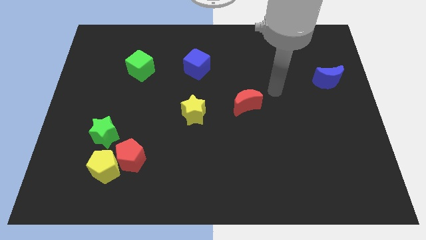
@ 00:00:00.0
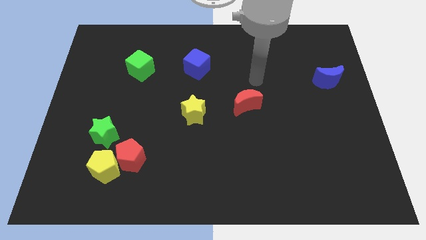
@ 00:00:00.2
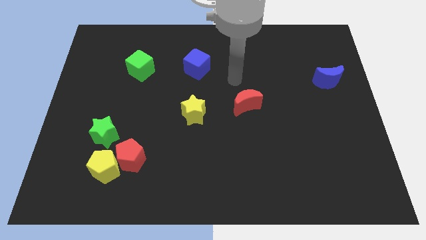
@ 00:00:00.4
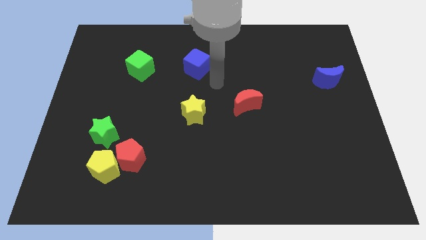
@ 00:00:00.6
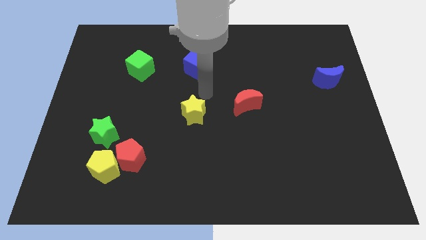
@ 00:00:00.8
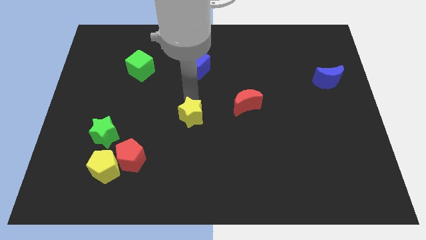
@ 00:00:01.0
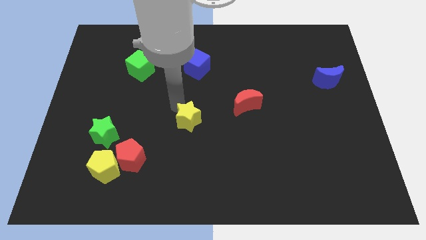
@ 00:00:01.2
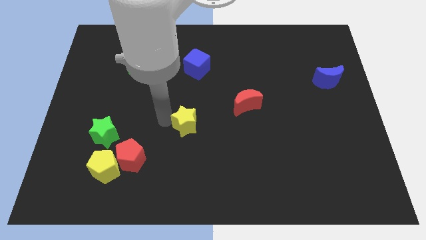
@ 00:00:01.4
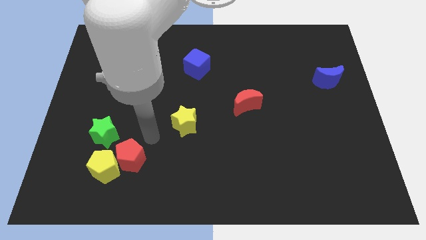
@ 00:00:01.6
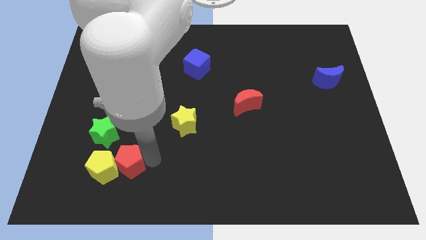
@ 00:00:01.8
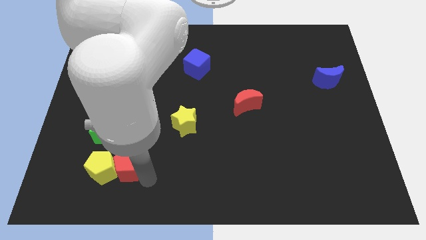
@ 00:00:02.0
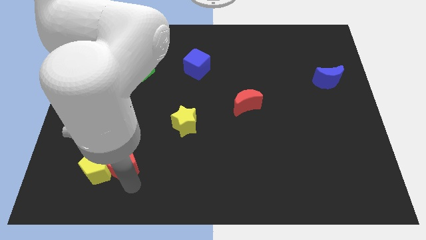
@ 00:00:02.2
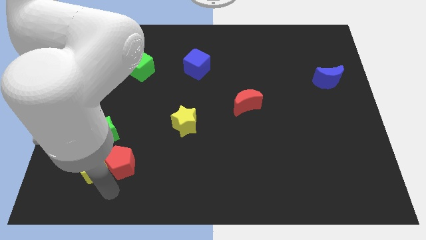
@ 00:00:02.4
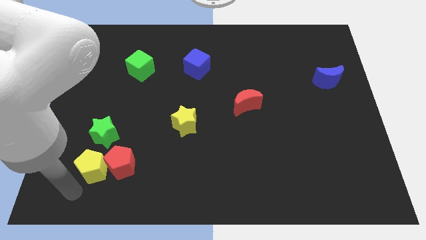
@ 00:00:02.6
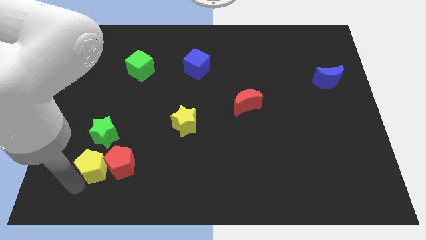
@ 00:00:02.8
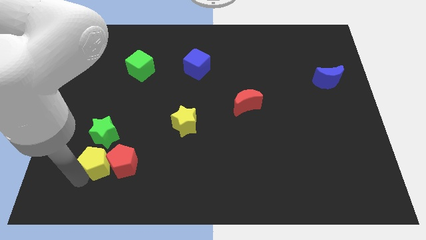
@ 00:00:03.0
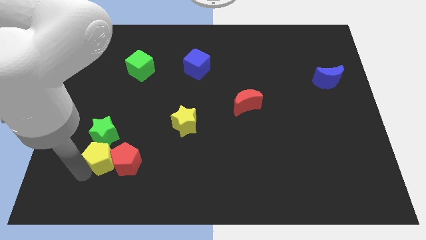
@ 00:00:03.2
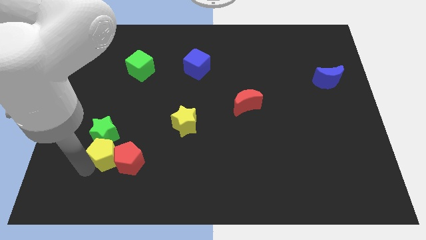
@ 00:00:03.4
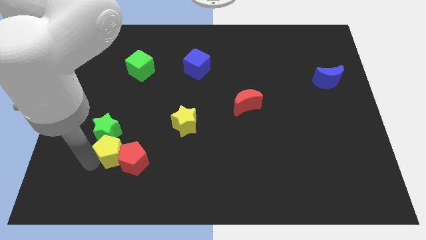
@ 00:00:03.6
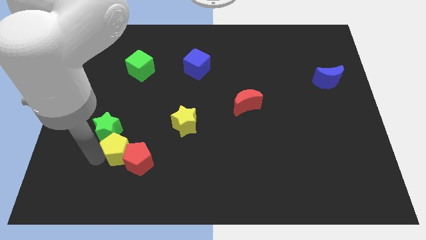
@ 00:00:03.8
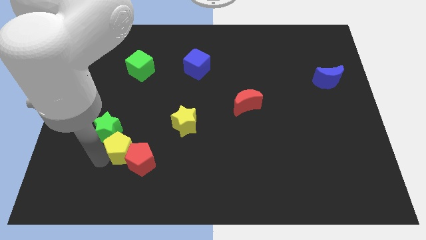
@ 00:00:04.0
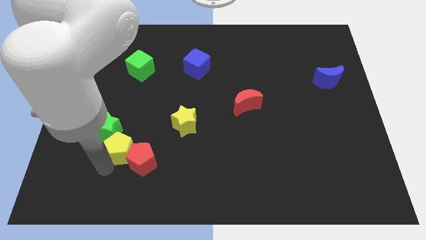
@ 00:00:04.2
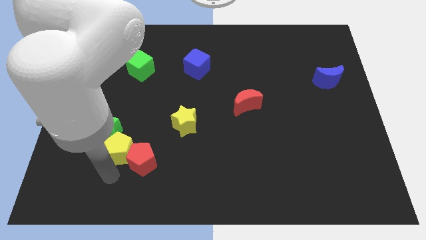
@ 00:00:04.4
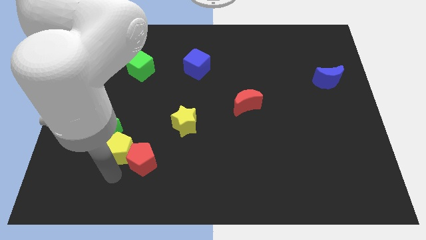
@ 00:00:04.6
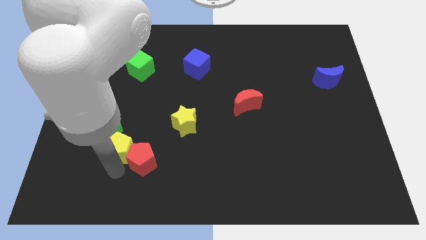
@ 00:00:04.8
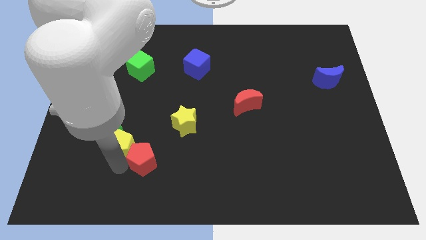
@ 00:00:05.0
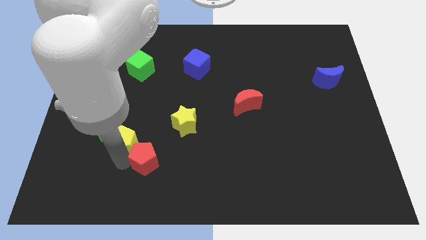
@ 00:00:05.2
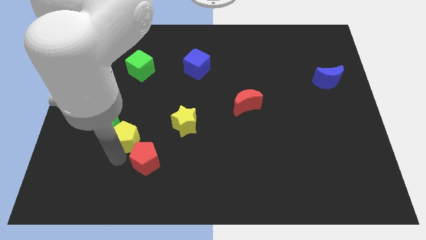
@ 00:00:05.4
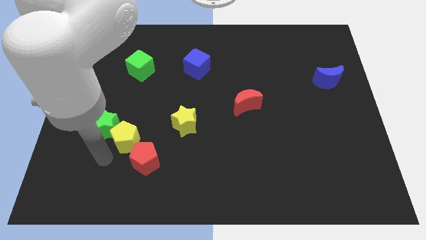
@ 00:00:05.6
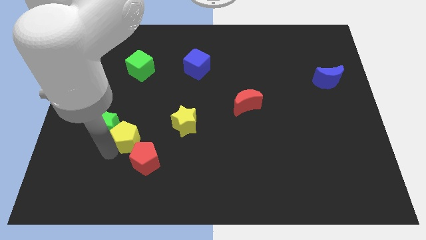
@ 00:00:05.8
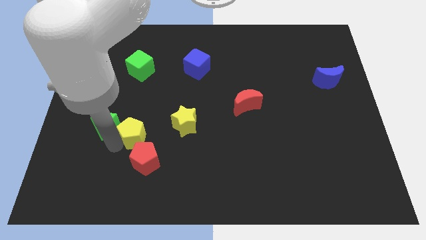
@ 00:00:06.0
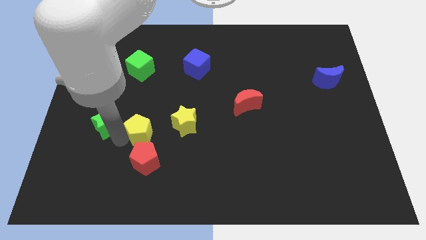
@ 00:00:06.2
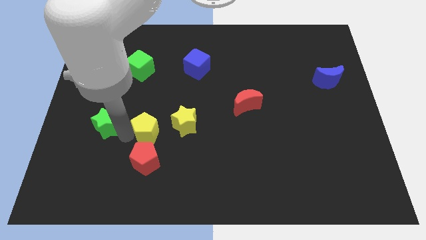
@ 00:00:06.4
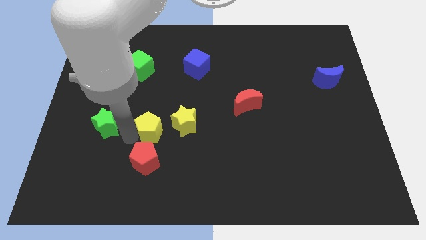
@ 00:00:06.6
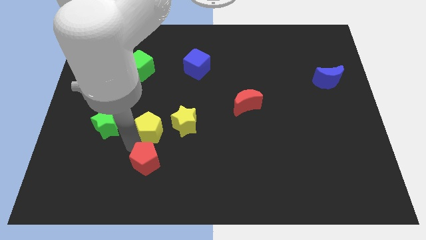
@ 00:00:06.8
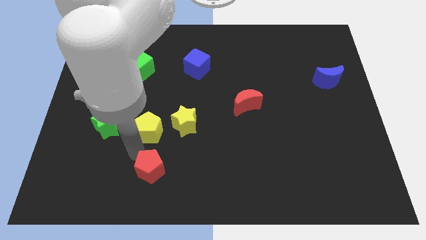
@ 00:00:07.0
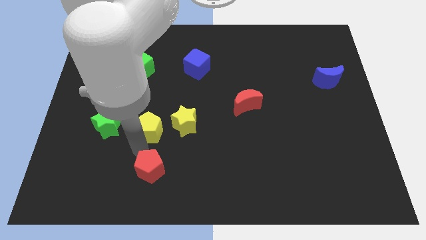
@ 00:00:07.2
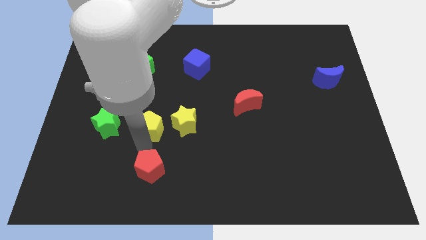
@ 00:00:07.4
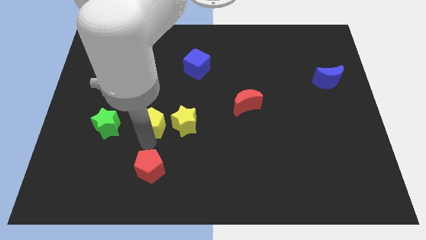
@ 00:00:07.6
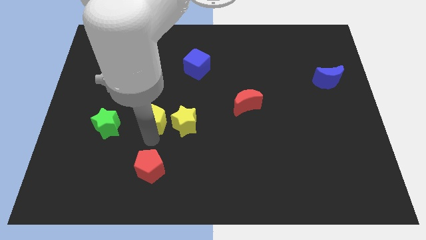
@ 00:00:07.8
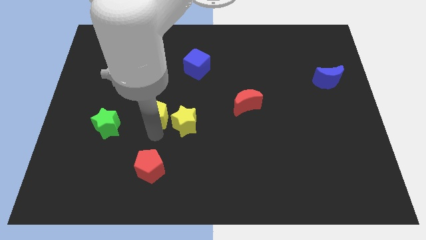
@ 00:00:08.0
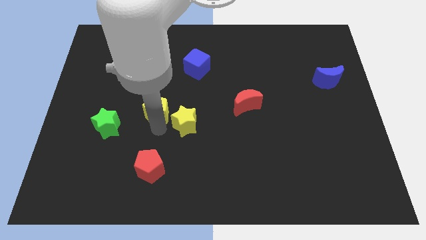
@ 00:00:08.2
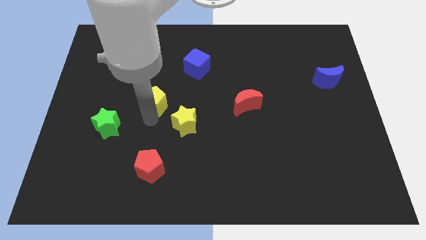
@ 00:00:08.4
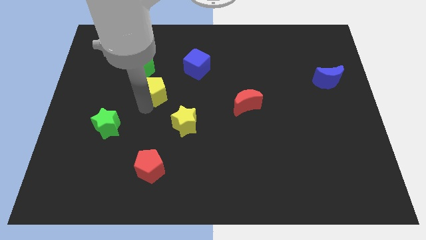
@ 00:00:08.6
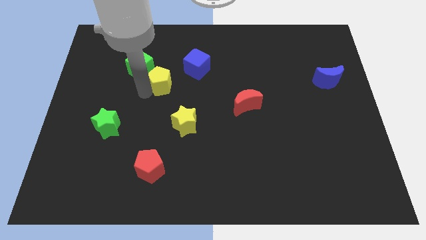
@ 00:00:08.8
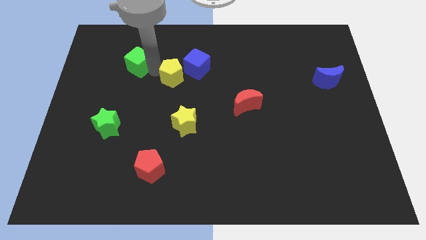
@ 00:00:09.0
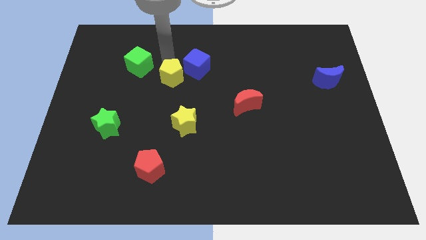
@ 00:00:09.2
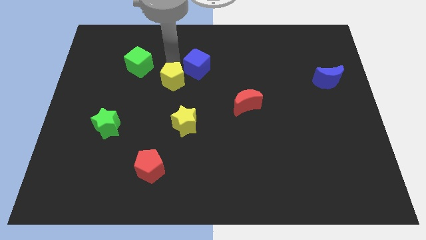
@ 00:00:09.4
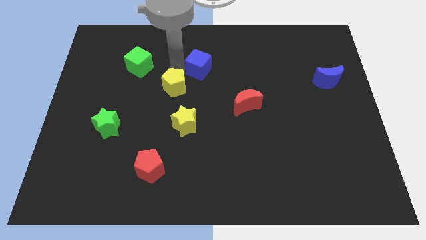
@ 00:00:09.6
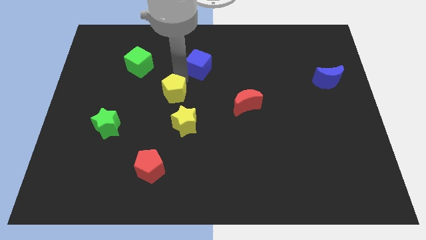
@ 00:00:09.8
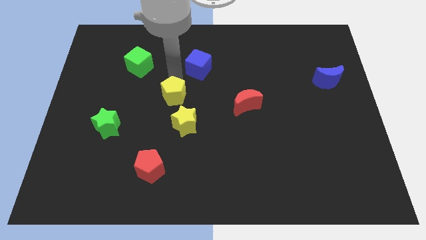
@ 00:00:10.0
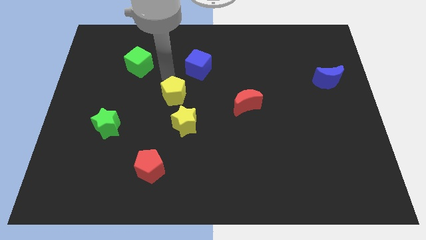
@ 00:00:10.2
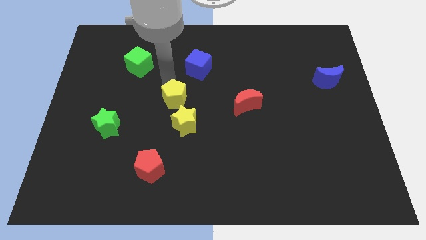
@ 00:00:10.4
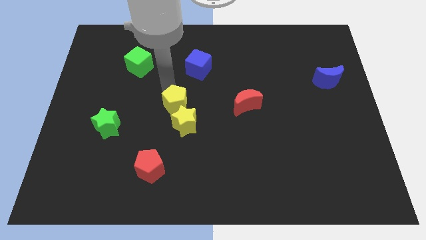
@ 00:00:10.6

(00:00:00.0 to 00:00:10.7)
put the yellow pentagon towards the yellow star

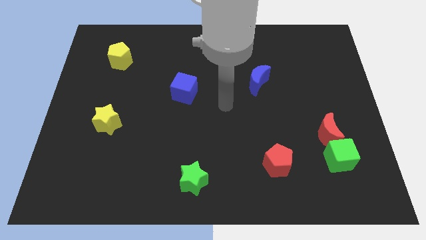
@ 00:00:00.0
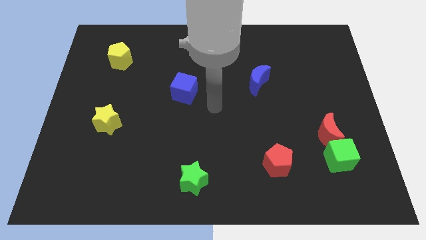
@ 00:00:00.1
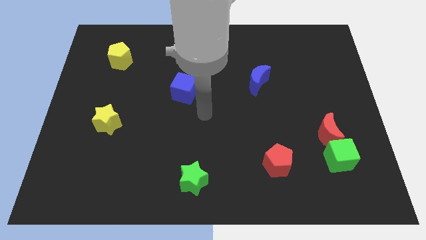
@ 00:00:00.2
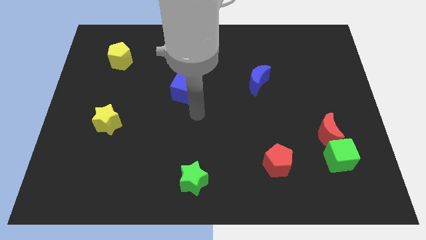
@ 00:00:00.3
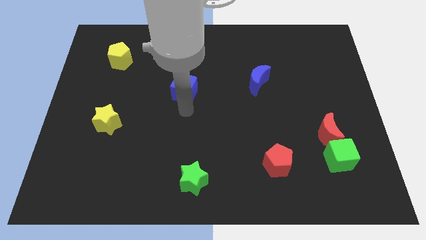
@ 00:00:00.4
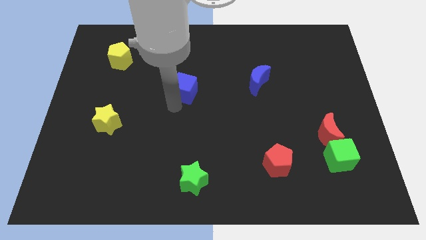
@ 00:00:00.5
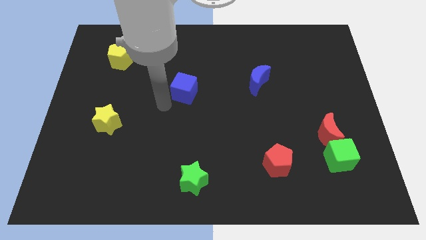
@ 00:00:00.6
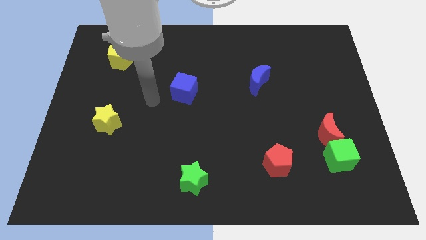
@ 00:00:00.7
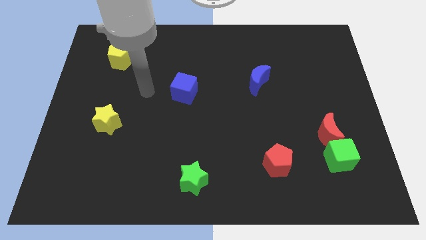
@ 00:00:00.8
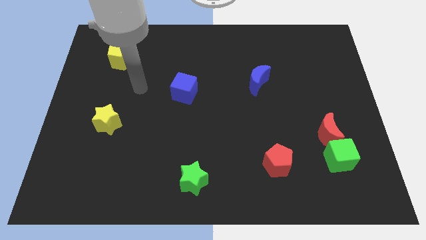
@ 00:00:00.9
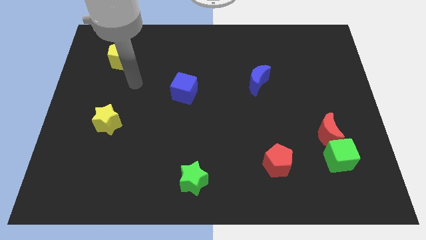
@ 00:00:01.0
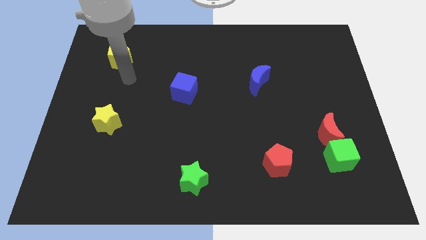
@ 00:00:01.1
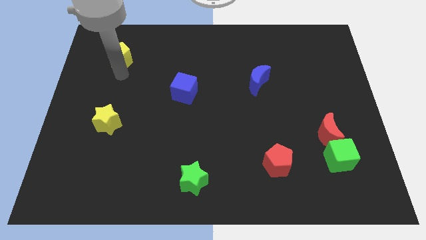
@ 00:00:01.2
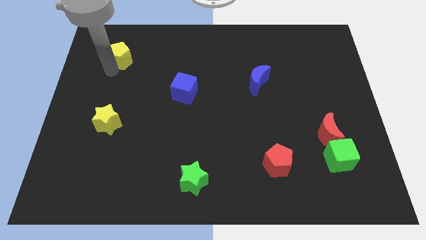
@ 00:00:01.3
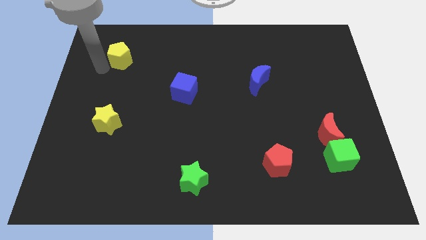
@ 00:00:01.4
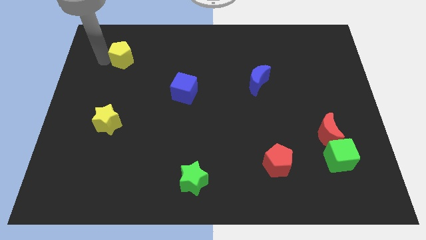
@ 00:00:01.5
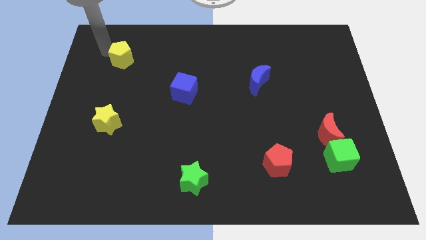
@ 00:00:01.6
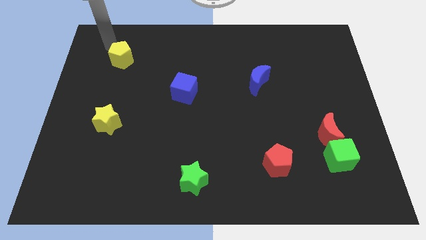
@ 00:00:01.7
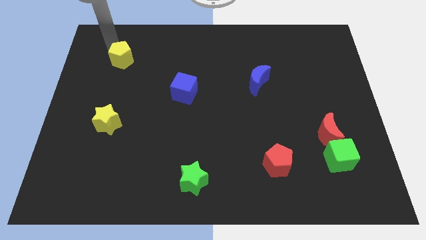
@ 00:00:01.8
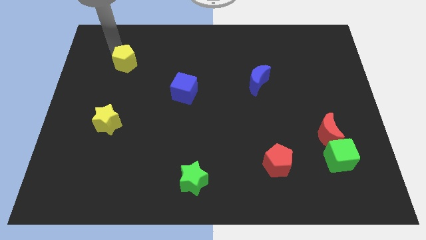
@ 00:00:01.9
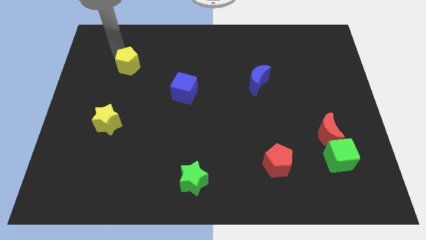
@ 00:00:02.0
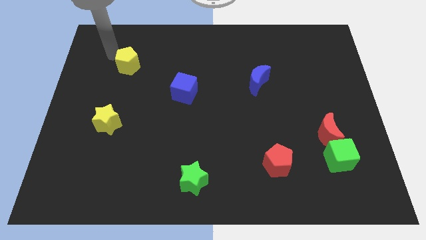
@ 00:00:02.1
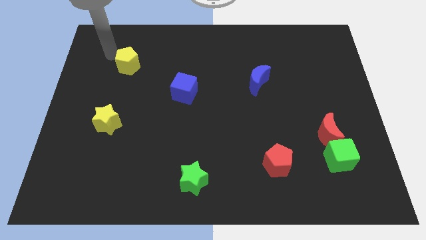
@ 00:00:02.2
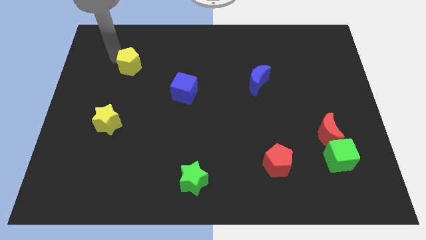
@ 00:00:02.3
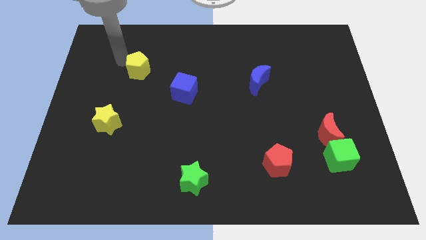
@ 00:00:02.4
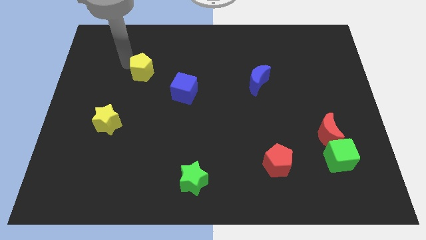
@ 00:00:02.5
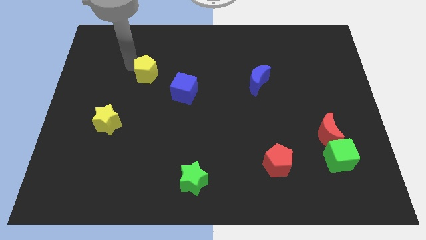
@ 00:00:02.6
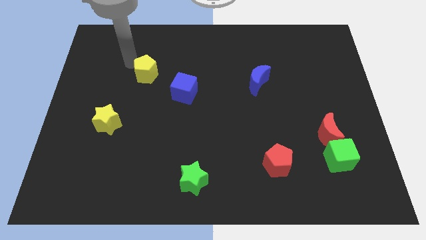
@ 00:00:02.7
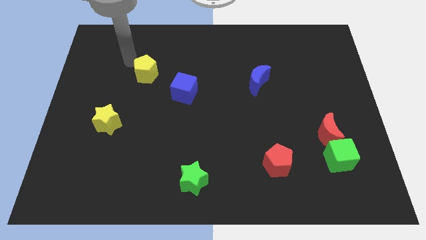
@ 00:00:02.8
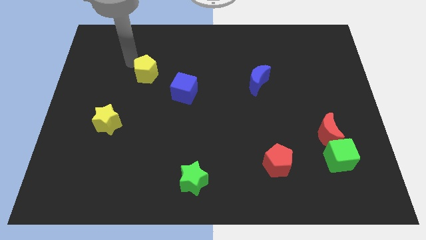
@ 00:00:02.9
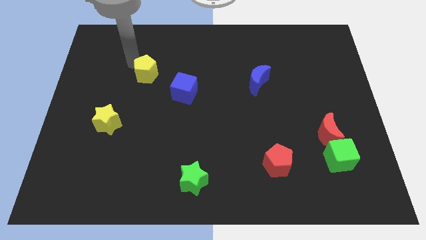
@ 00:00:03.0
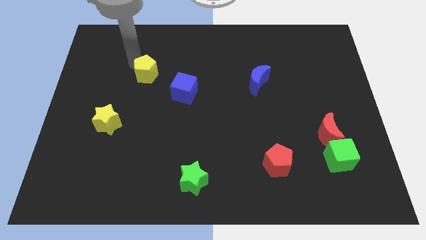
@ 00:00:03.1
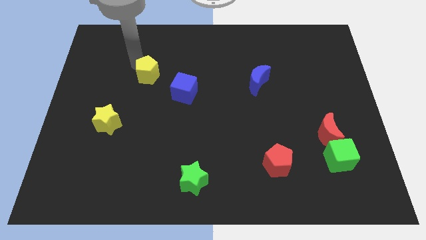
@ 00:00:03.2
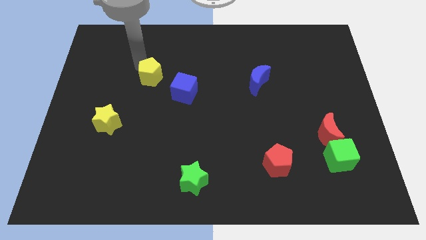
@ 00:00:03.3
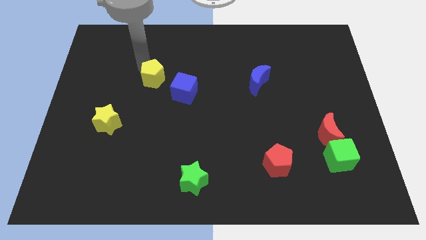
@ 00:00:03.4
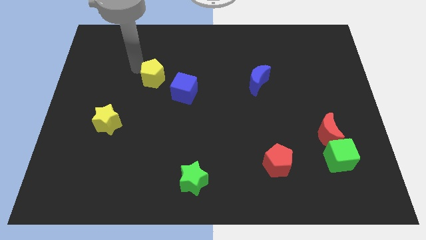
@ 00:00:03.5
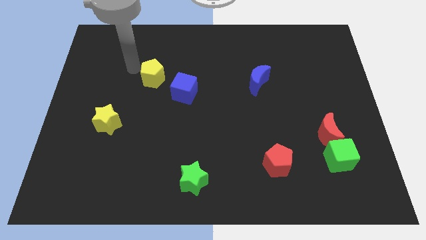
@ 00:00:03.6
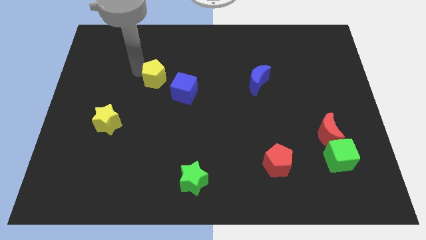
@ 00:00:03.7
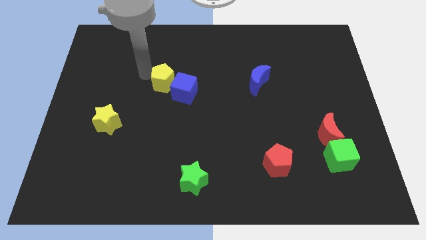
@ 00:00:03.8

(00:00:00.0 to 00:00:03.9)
move the yellow pentagon towards the blue cube
